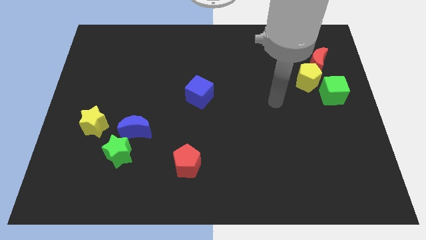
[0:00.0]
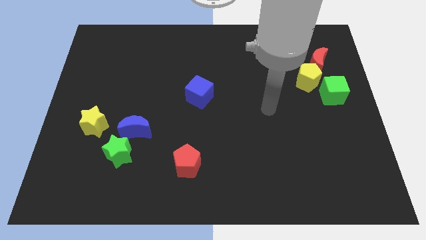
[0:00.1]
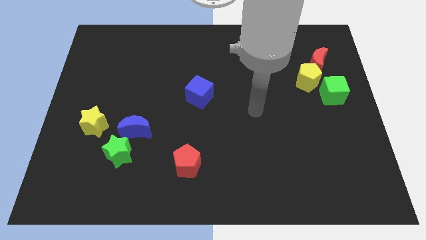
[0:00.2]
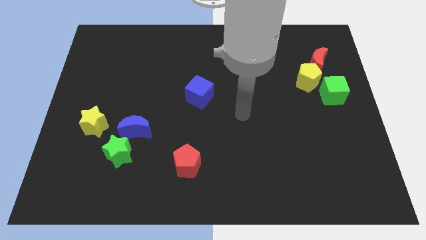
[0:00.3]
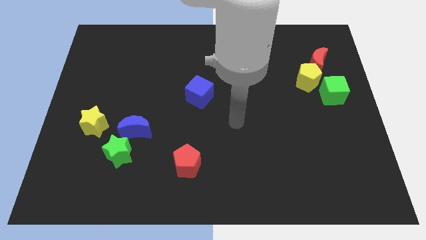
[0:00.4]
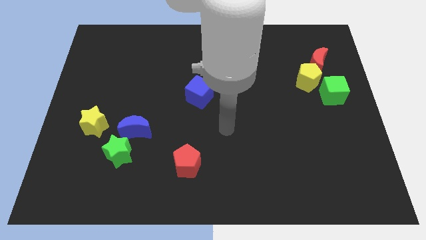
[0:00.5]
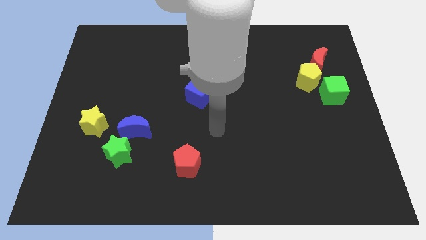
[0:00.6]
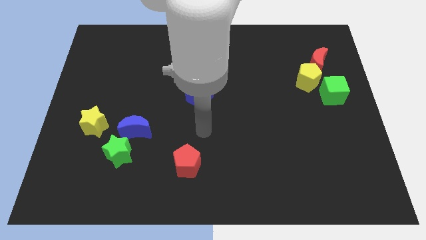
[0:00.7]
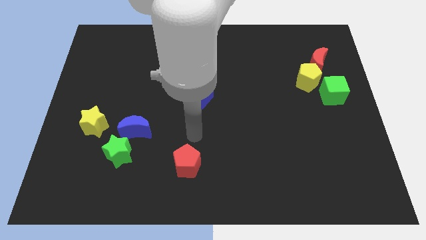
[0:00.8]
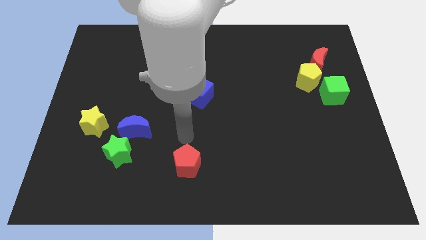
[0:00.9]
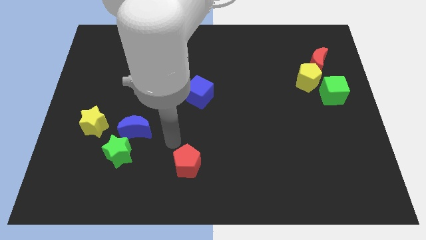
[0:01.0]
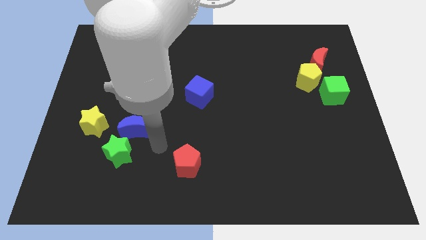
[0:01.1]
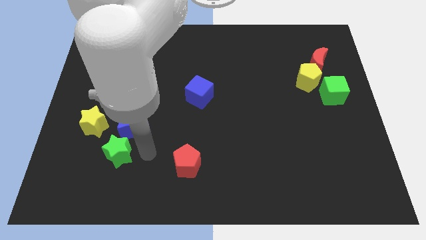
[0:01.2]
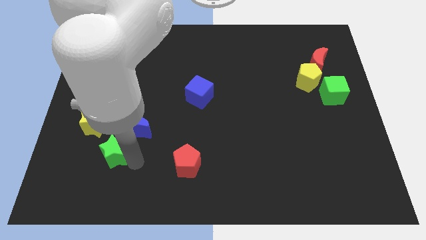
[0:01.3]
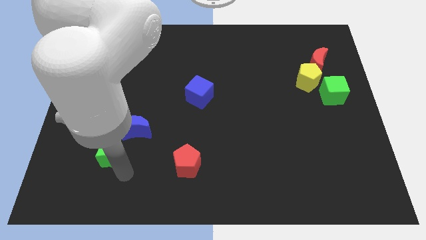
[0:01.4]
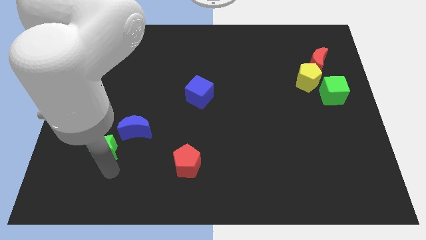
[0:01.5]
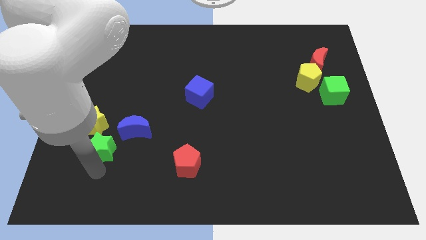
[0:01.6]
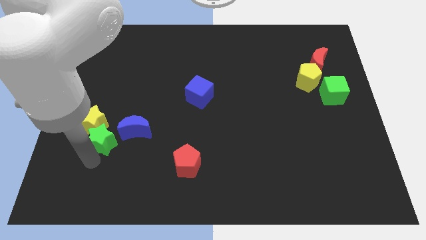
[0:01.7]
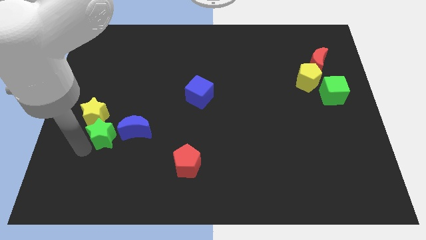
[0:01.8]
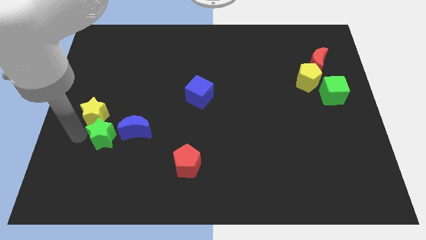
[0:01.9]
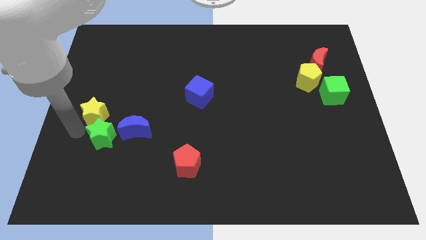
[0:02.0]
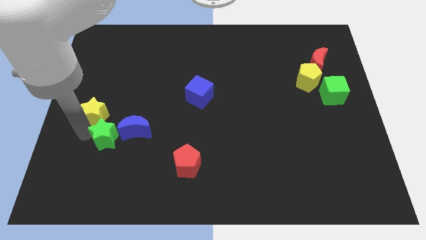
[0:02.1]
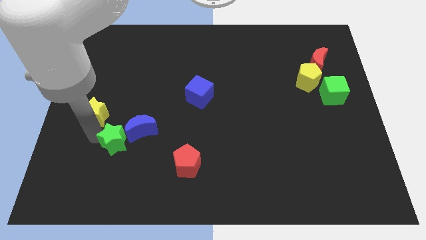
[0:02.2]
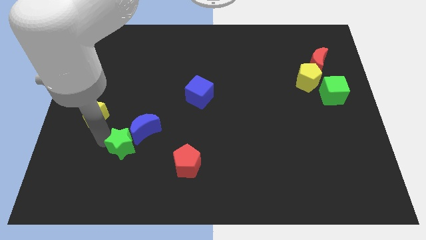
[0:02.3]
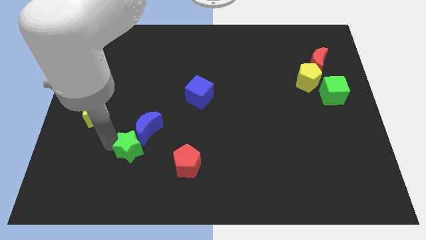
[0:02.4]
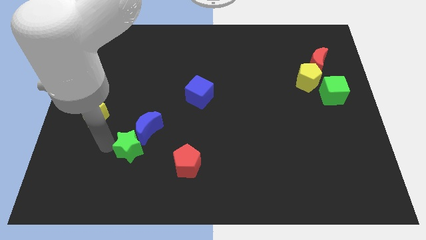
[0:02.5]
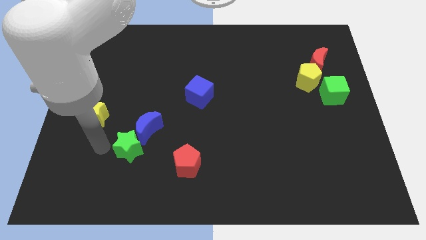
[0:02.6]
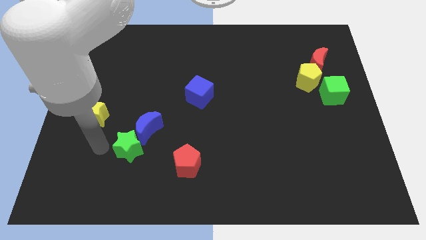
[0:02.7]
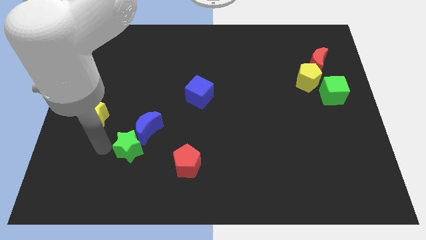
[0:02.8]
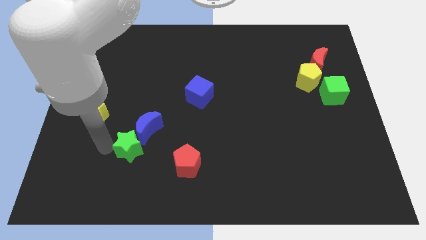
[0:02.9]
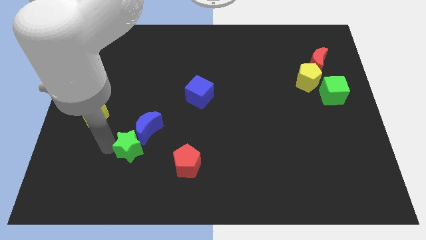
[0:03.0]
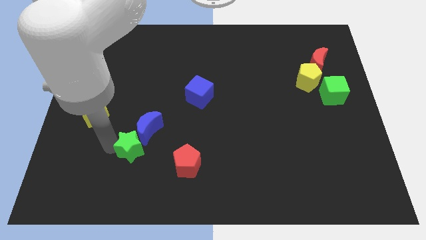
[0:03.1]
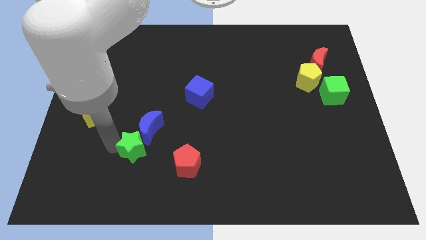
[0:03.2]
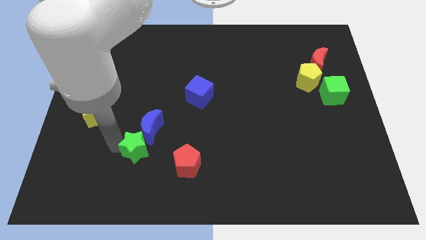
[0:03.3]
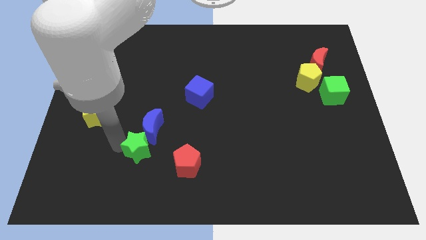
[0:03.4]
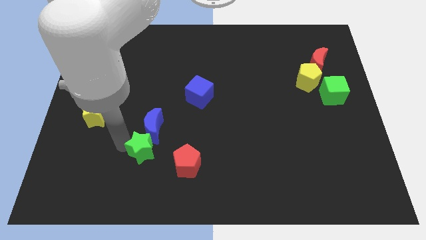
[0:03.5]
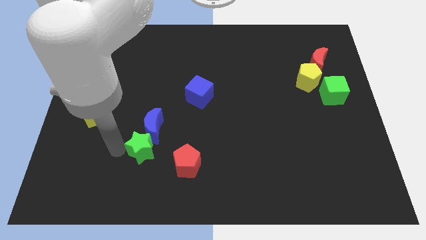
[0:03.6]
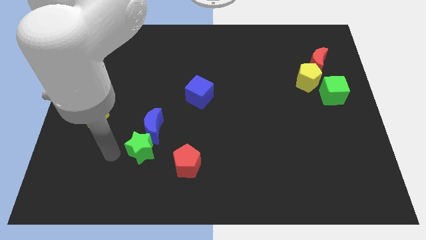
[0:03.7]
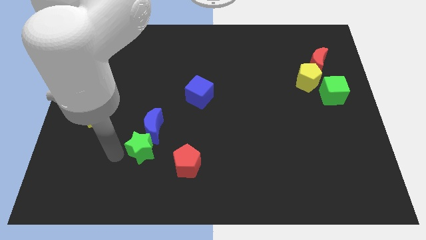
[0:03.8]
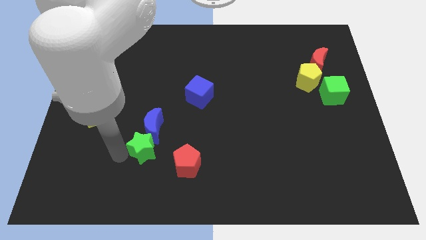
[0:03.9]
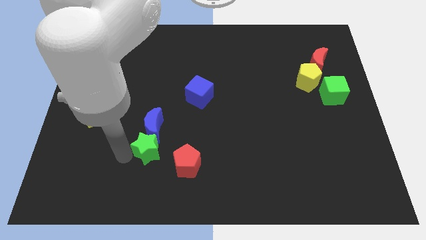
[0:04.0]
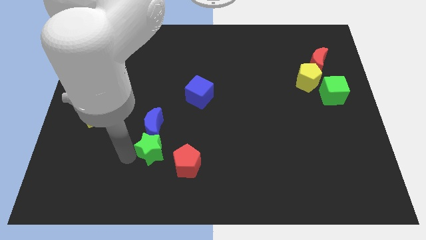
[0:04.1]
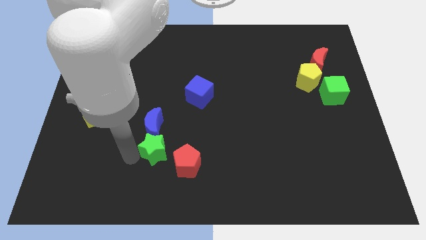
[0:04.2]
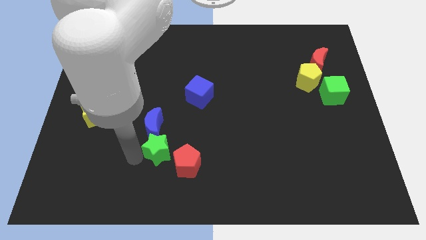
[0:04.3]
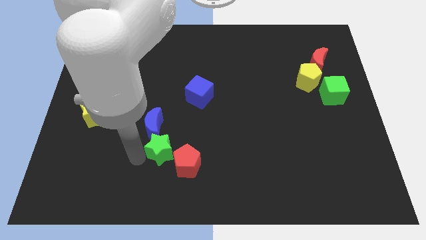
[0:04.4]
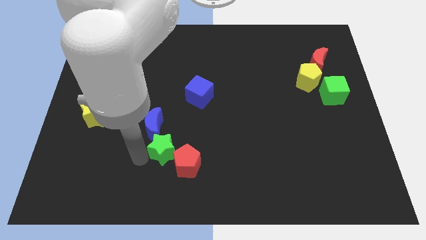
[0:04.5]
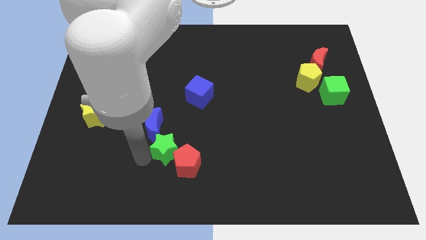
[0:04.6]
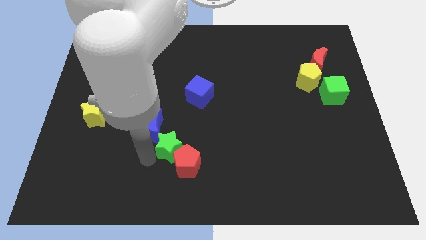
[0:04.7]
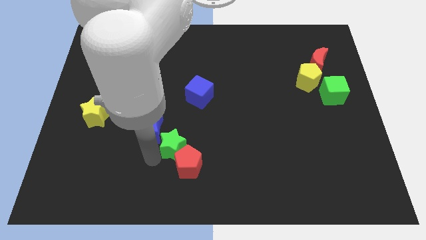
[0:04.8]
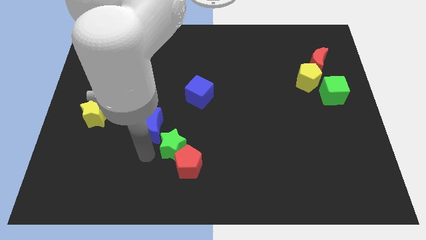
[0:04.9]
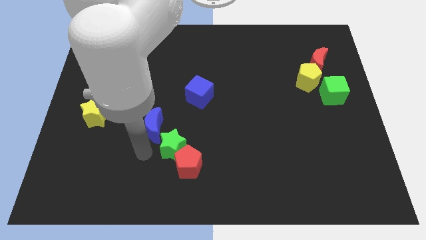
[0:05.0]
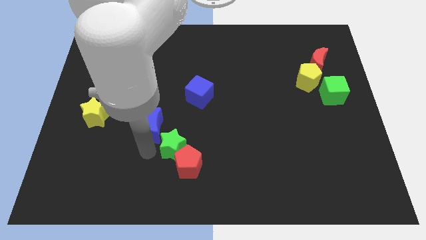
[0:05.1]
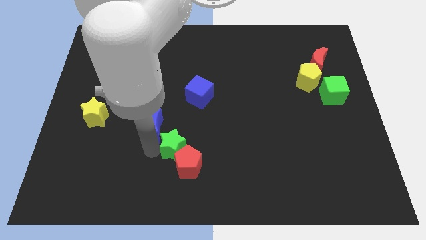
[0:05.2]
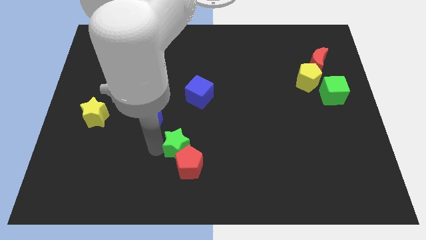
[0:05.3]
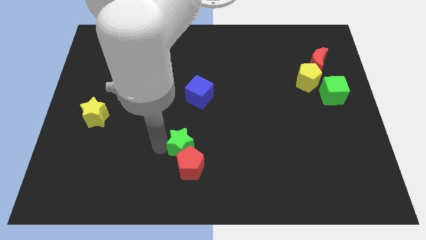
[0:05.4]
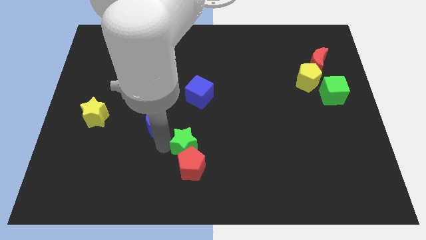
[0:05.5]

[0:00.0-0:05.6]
slide the green star to the top right of the red pentagon

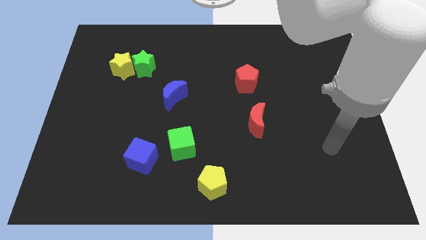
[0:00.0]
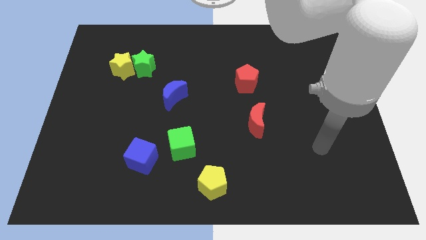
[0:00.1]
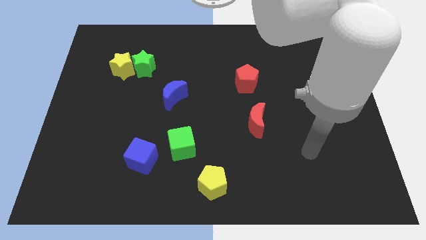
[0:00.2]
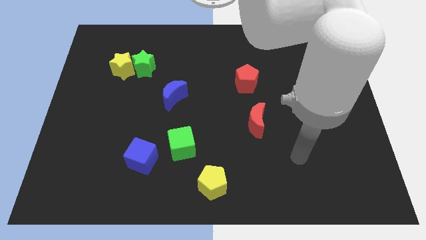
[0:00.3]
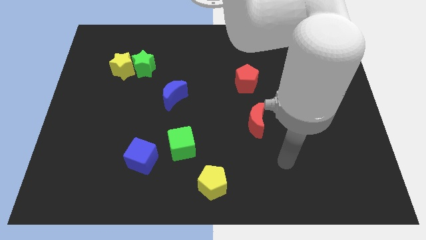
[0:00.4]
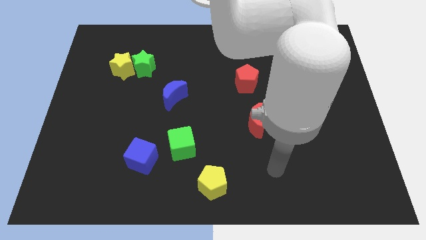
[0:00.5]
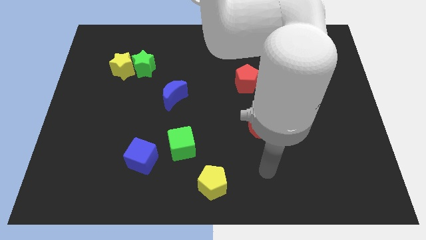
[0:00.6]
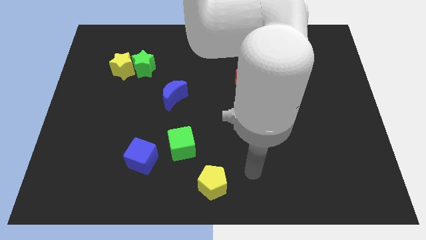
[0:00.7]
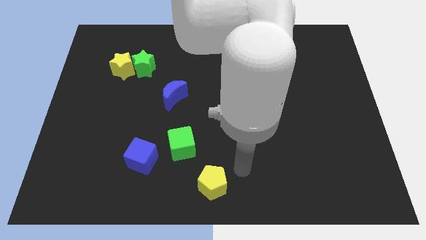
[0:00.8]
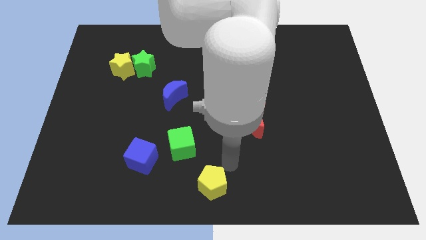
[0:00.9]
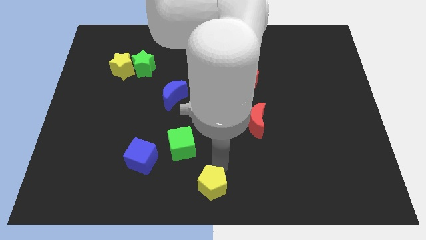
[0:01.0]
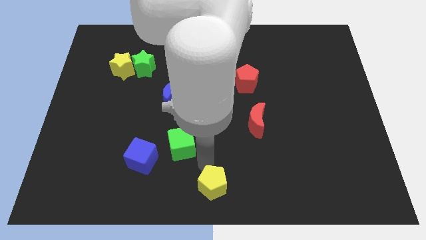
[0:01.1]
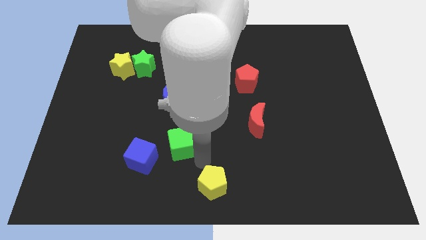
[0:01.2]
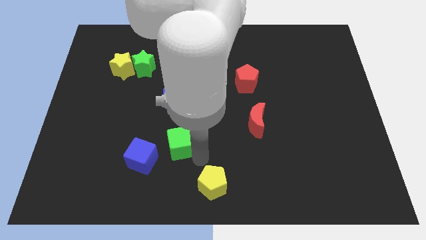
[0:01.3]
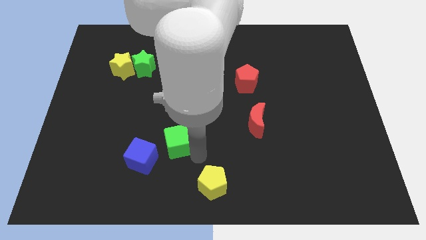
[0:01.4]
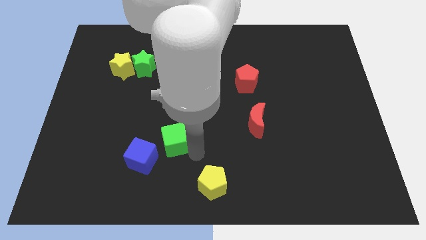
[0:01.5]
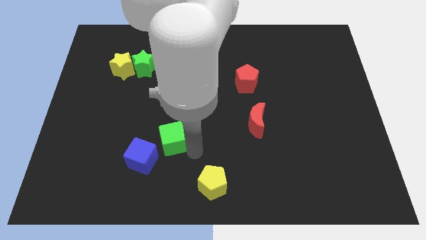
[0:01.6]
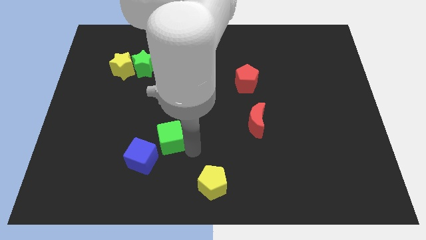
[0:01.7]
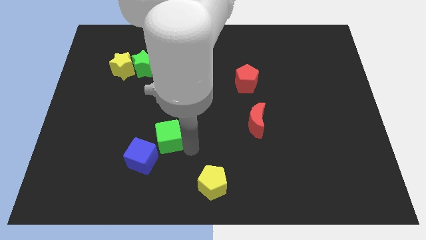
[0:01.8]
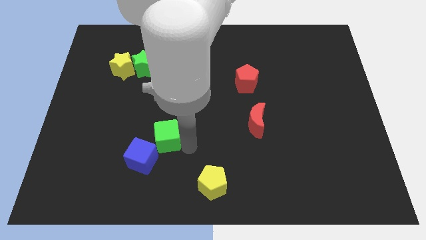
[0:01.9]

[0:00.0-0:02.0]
move the green cube to the top side of the blue cube
